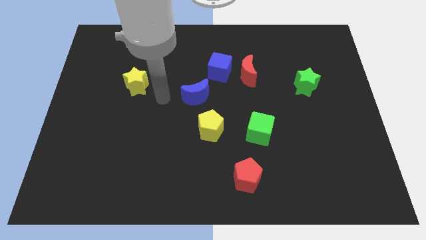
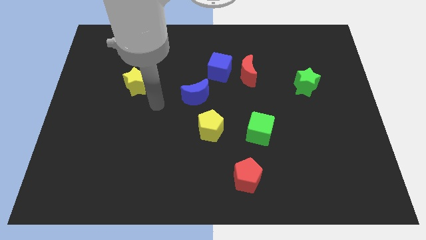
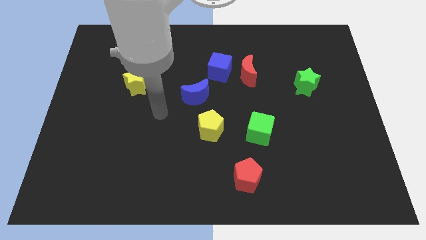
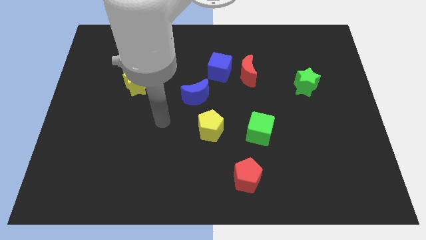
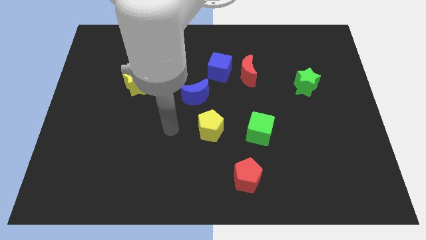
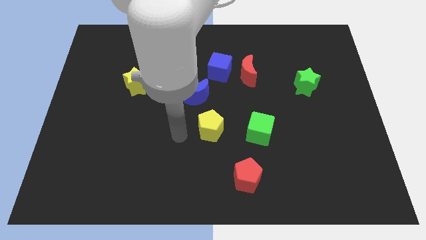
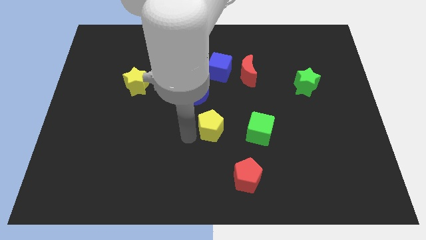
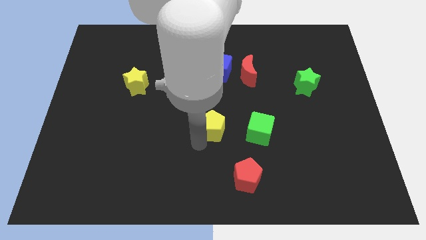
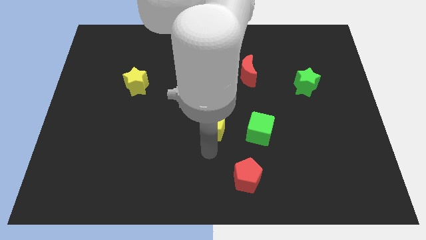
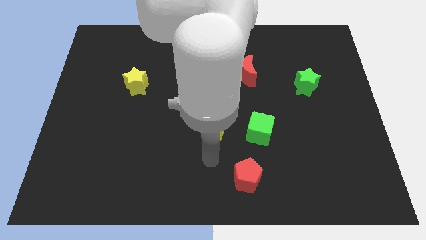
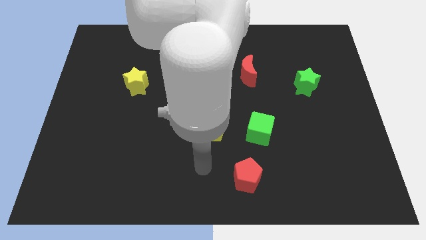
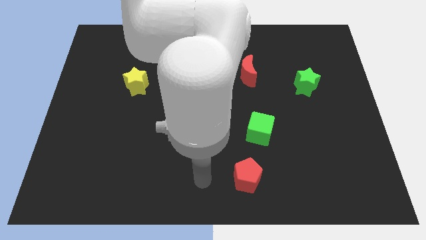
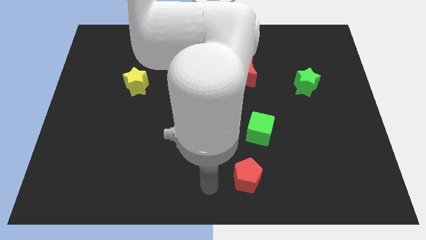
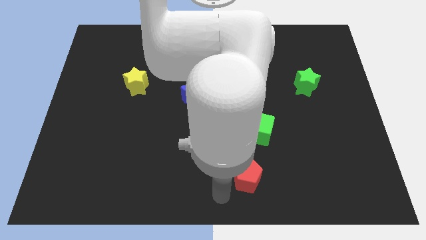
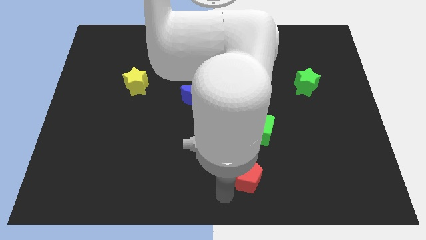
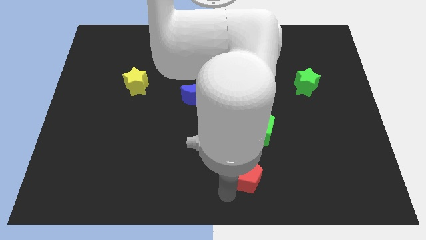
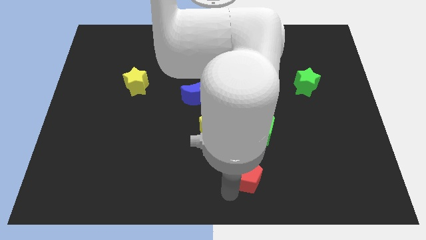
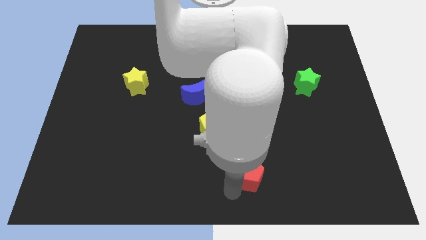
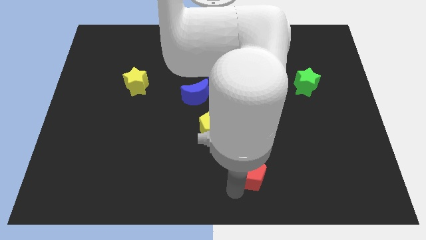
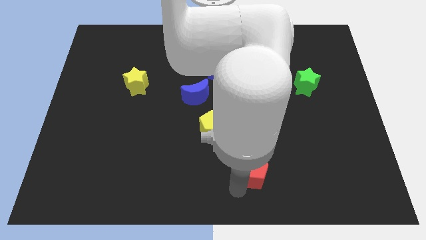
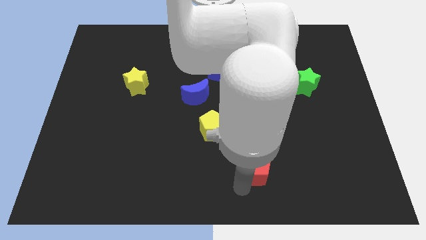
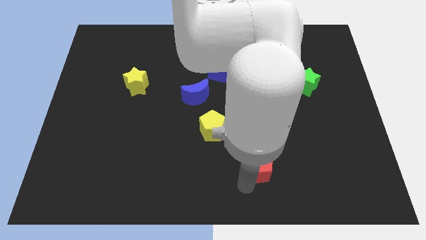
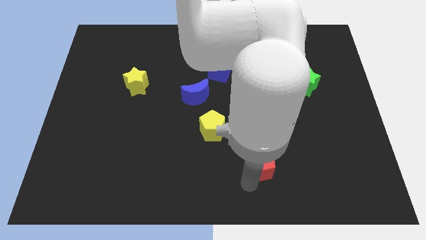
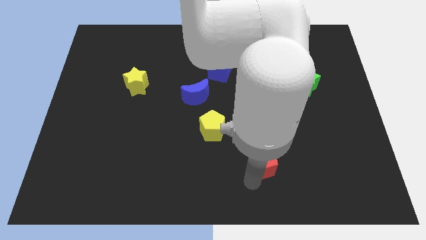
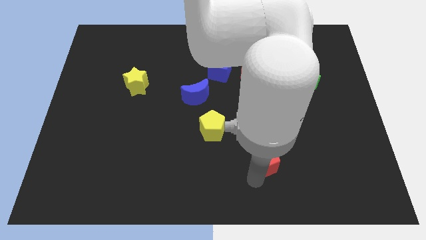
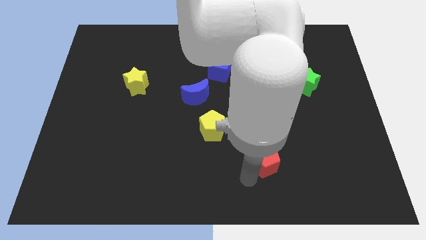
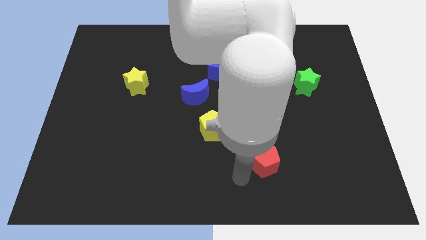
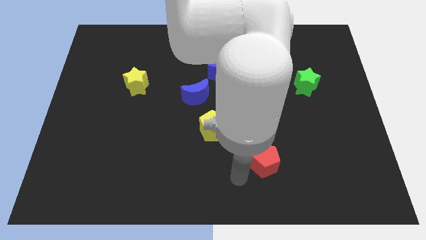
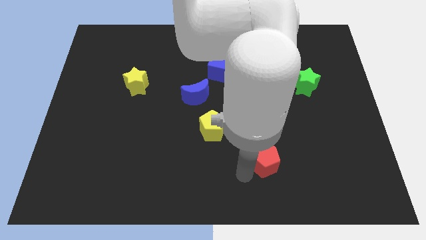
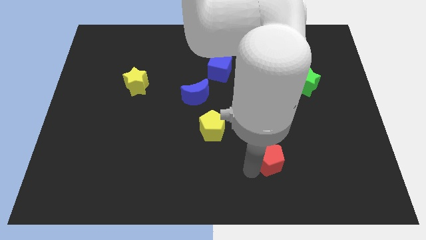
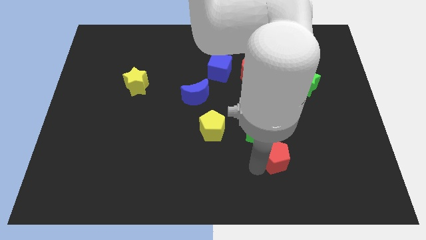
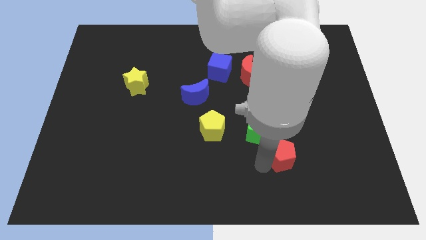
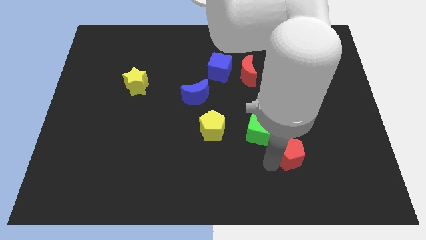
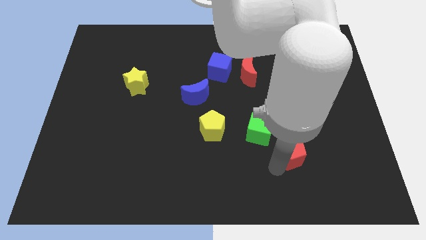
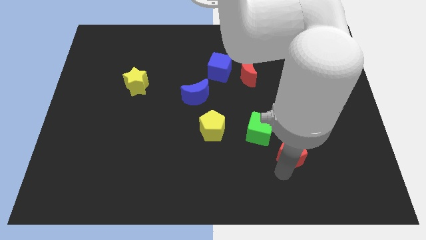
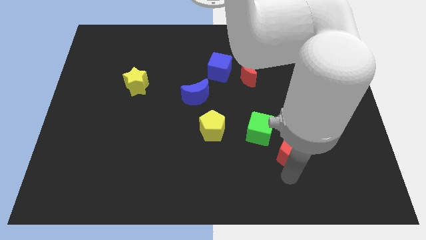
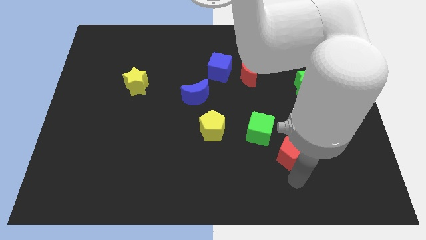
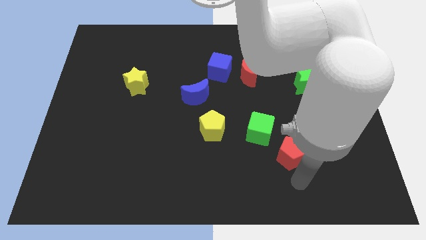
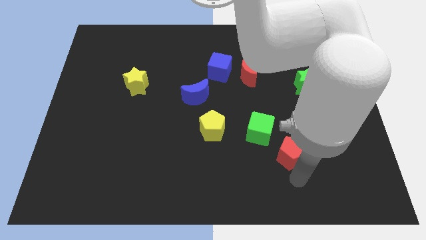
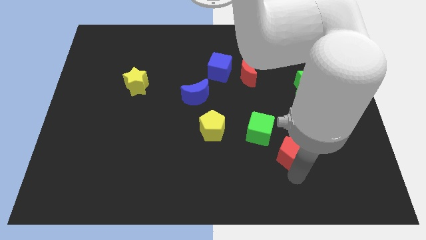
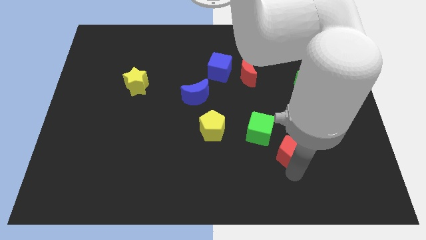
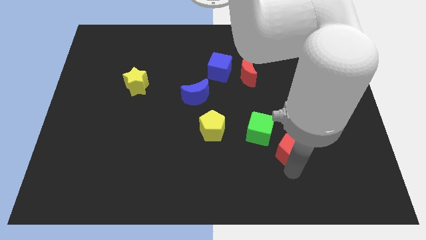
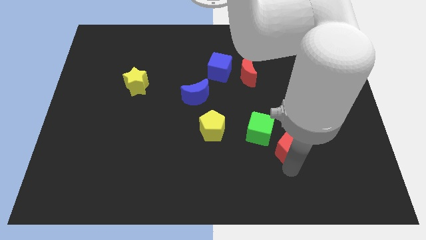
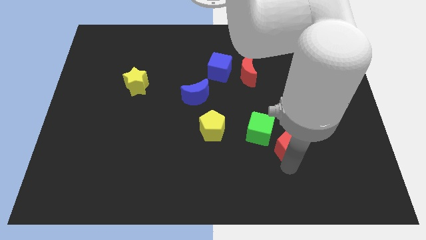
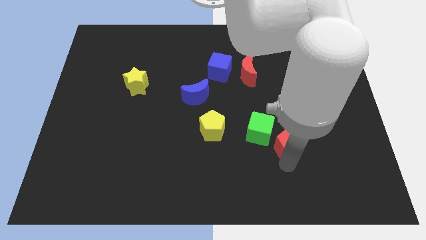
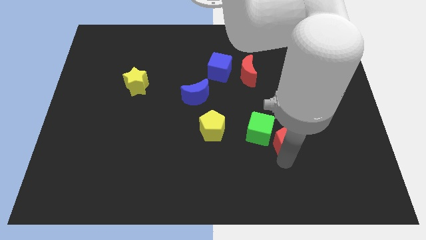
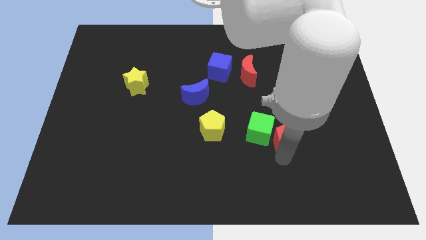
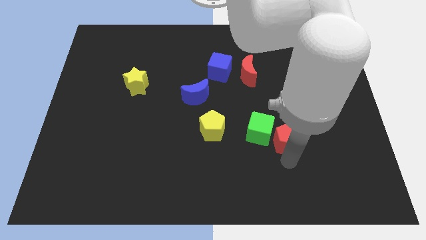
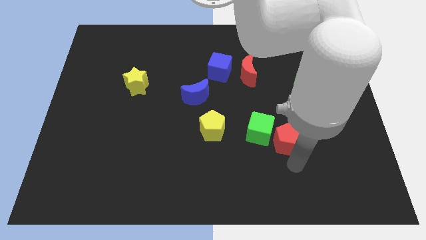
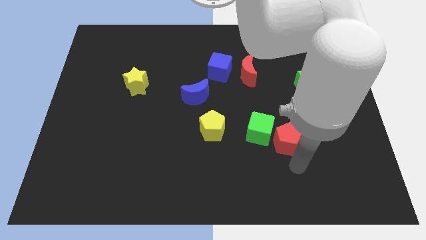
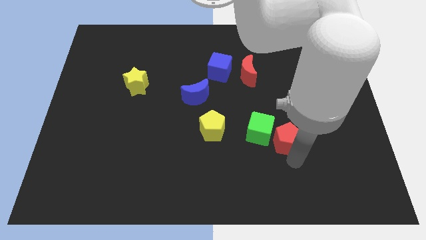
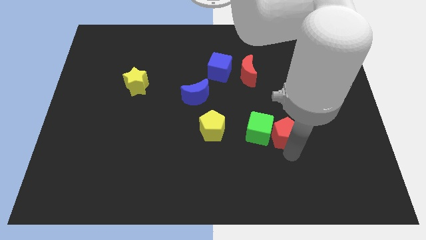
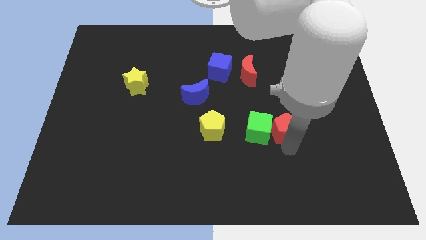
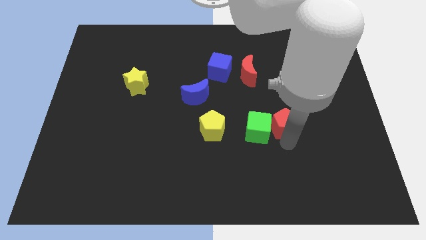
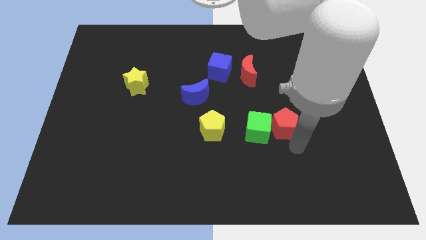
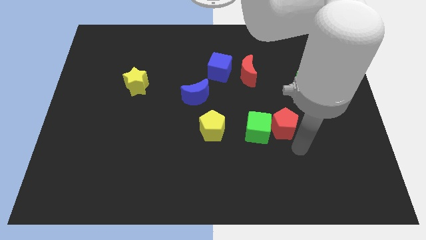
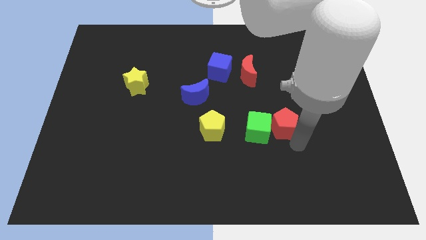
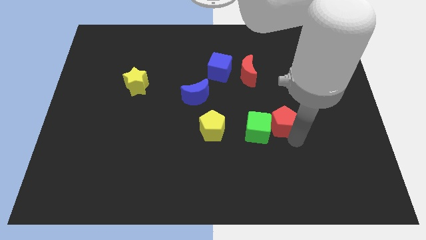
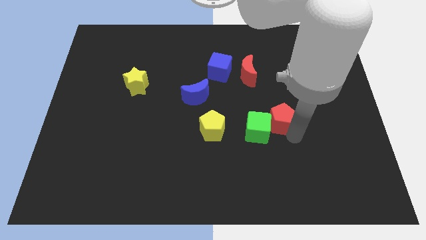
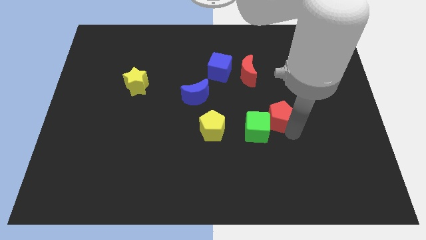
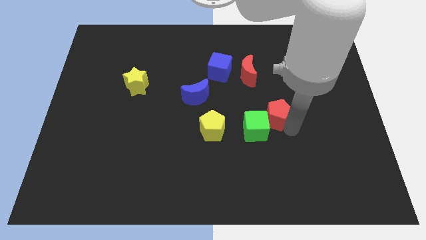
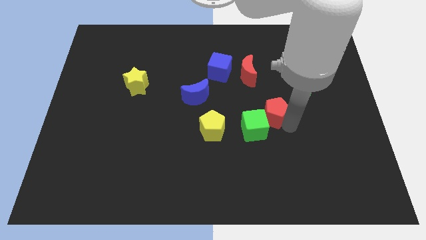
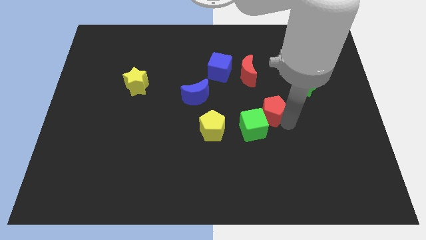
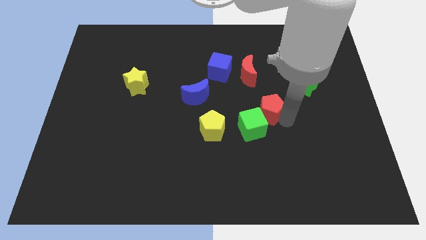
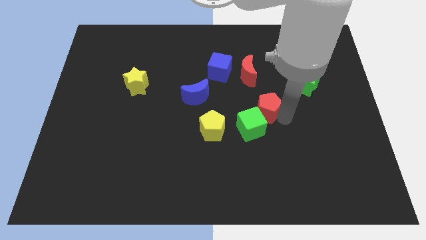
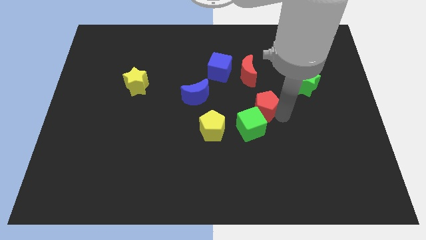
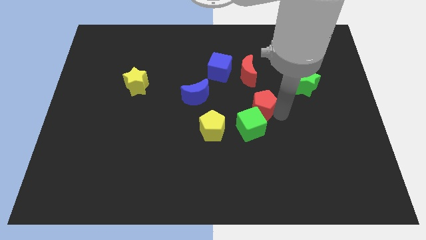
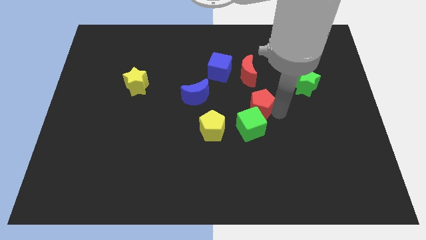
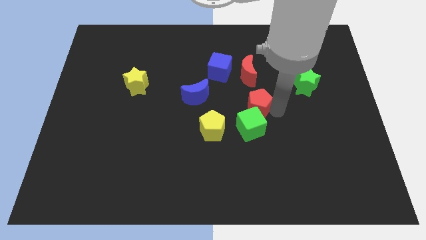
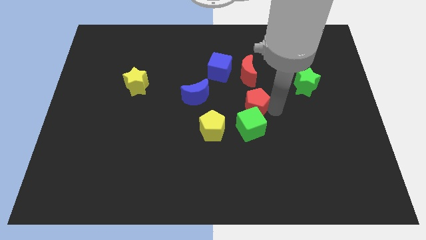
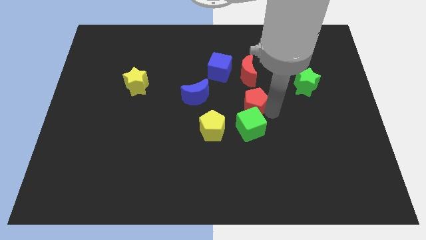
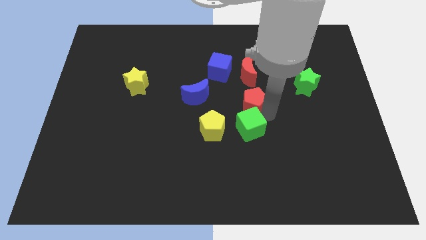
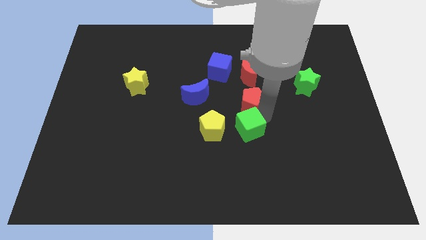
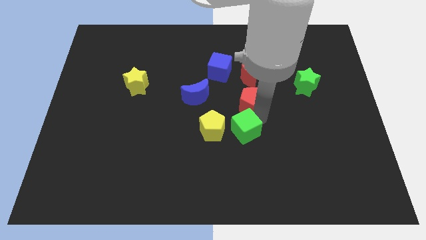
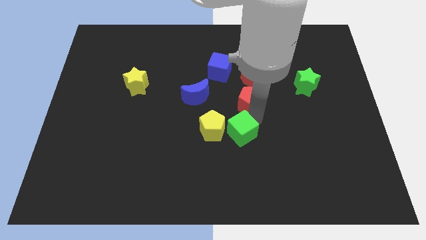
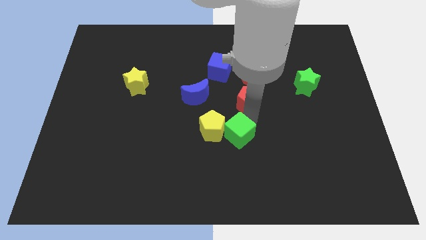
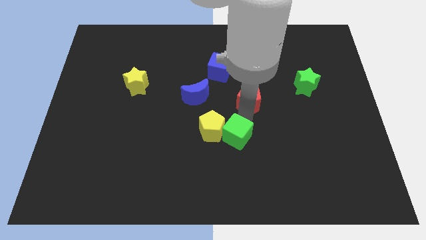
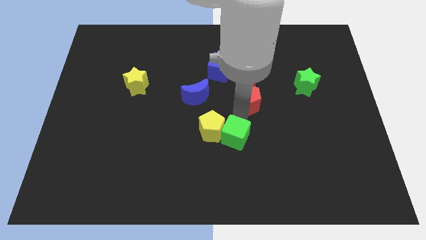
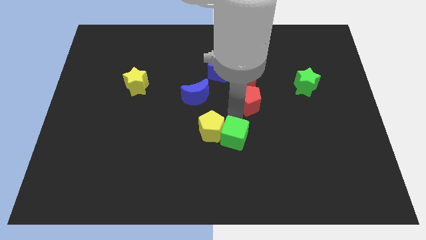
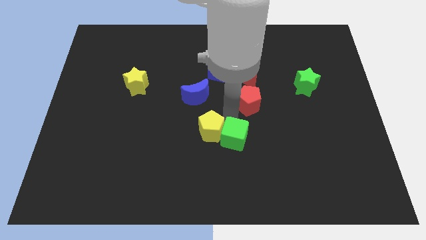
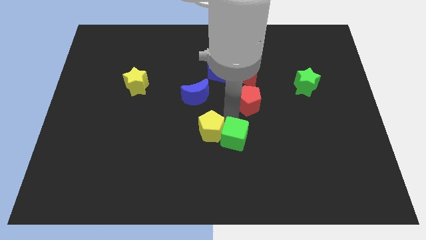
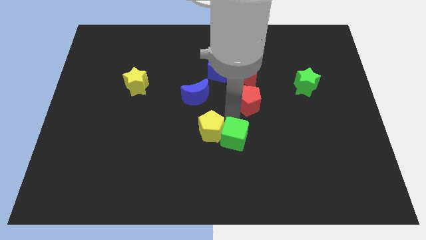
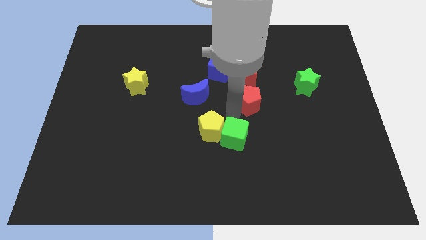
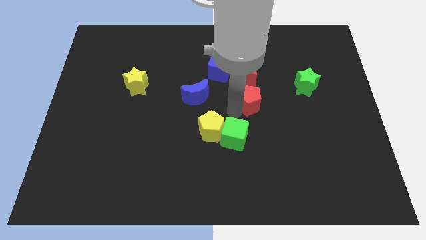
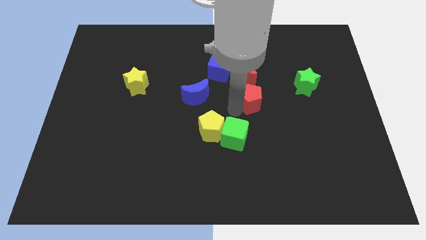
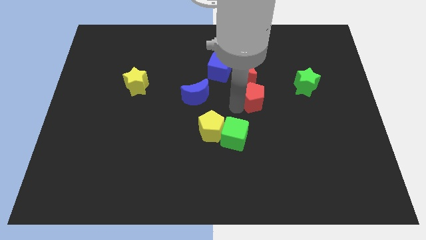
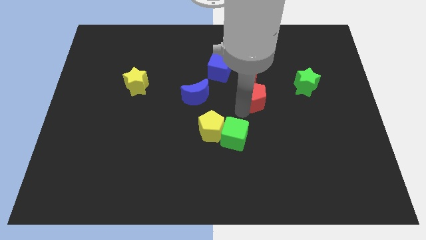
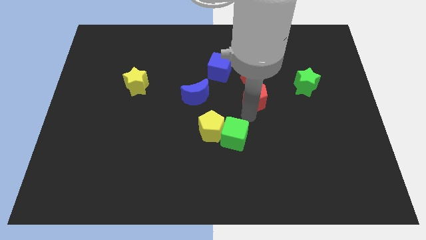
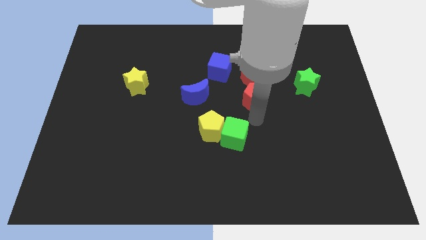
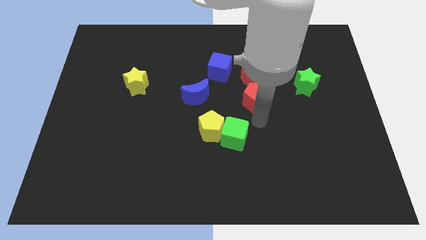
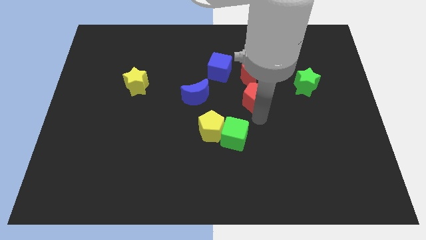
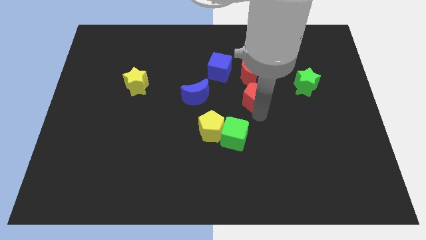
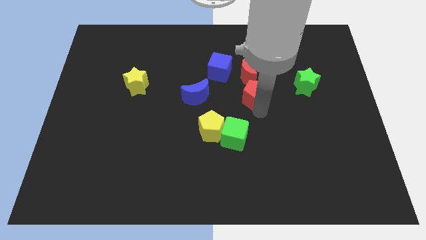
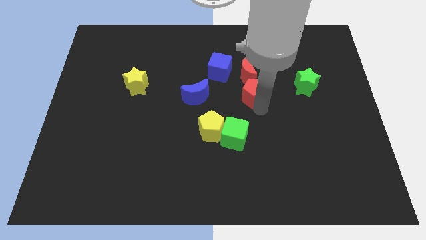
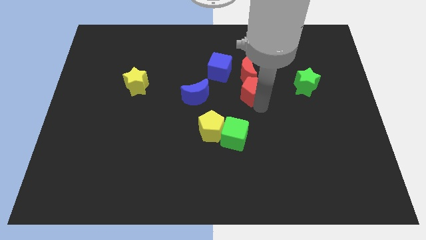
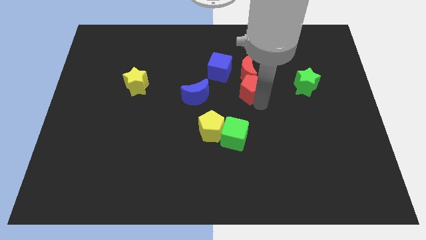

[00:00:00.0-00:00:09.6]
put the red pentagon towards the red moon
